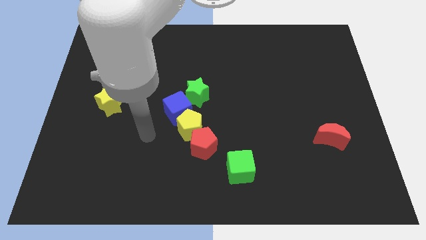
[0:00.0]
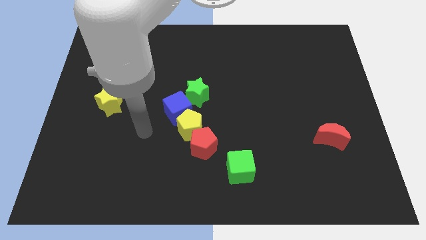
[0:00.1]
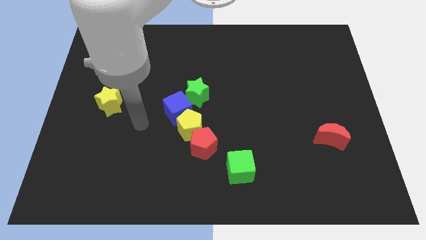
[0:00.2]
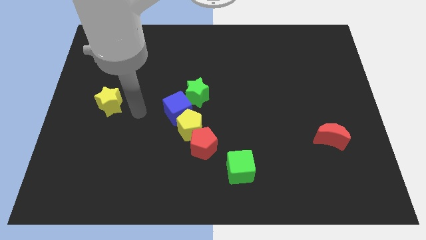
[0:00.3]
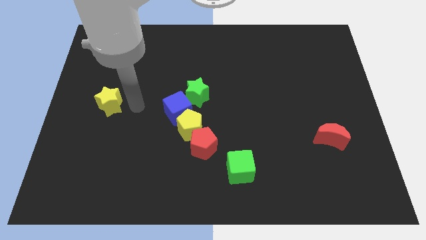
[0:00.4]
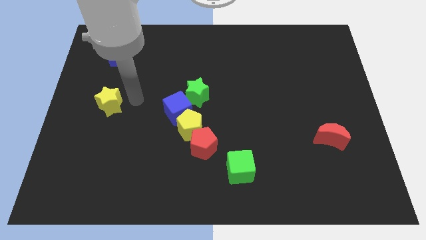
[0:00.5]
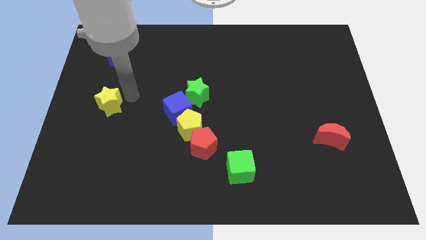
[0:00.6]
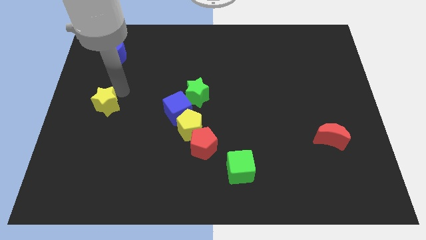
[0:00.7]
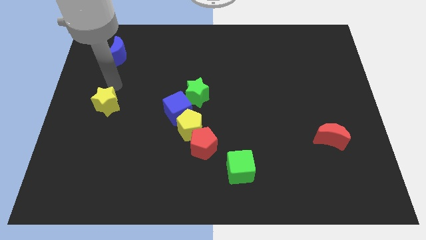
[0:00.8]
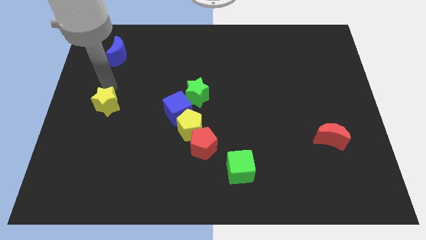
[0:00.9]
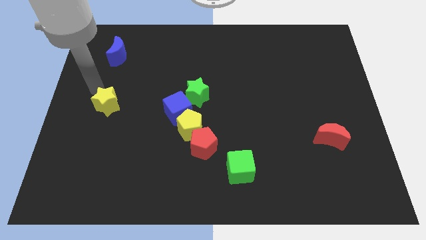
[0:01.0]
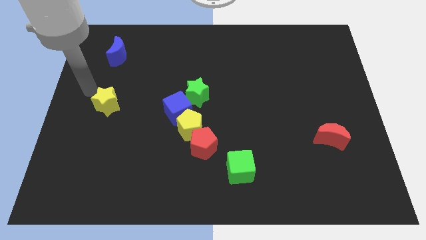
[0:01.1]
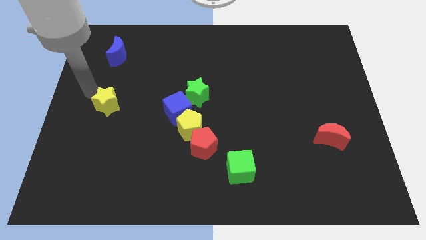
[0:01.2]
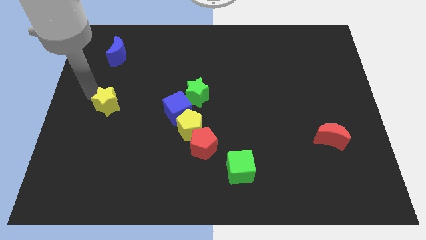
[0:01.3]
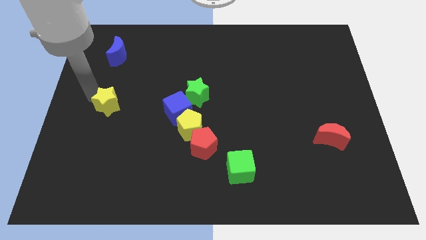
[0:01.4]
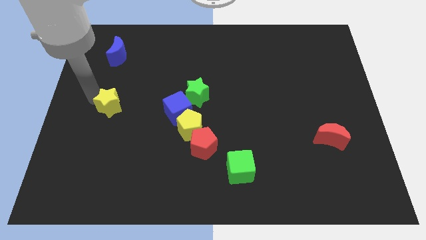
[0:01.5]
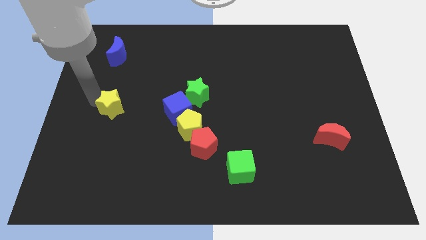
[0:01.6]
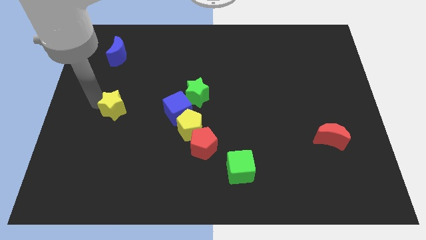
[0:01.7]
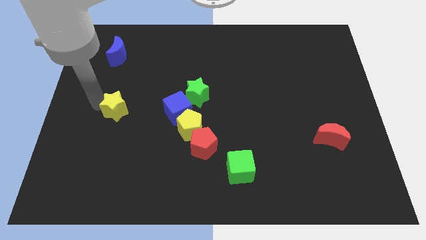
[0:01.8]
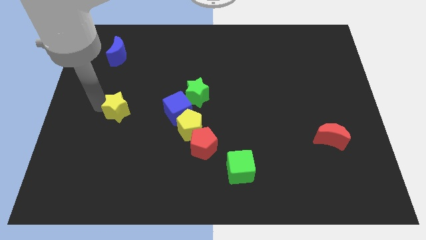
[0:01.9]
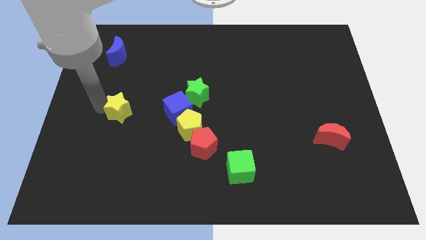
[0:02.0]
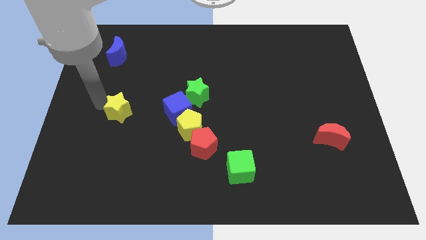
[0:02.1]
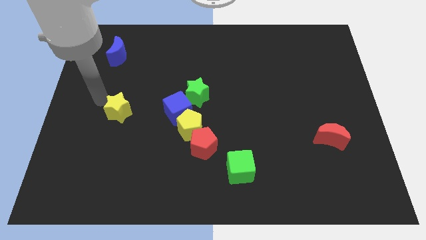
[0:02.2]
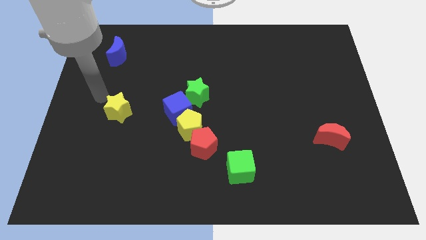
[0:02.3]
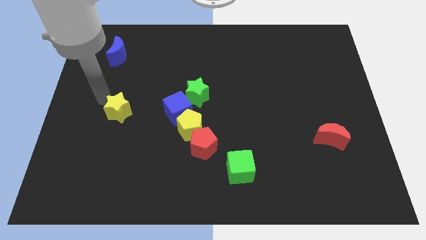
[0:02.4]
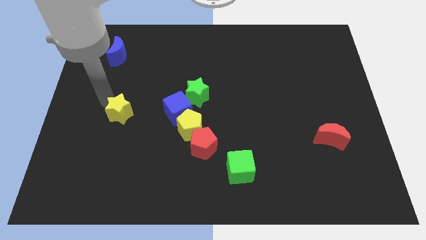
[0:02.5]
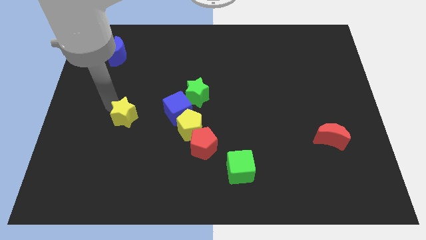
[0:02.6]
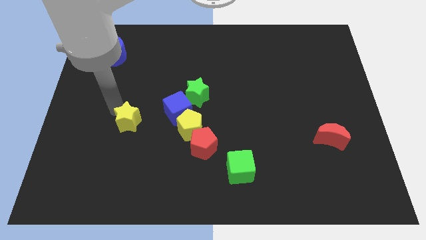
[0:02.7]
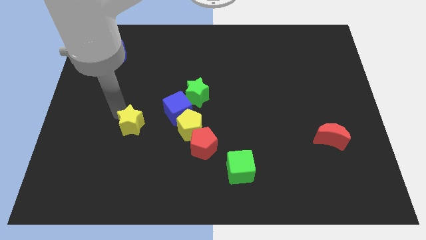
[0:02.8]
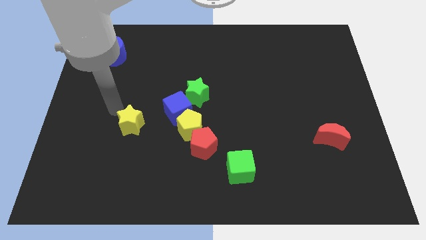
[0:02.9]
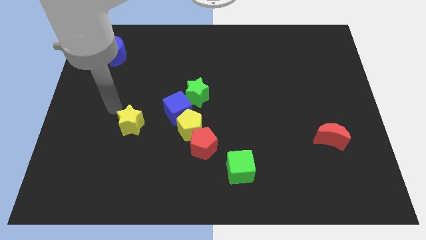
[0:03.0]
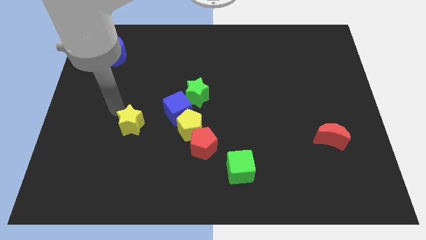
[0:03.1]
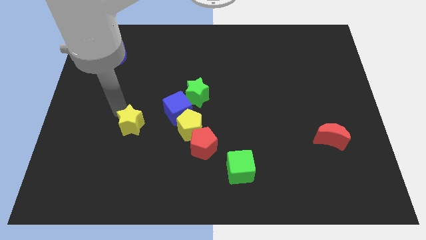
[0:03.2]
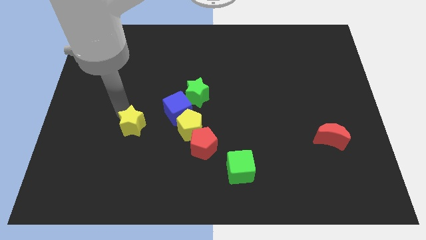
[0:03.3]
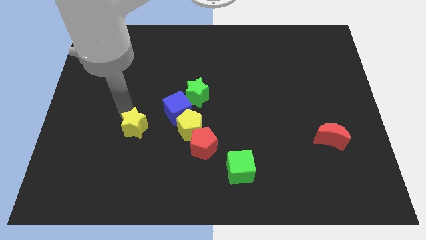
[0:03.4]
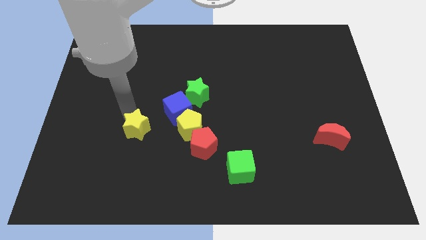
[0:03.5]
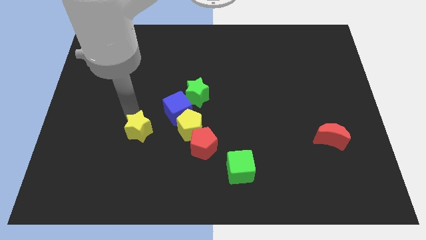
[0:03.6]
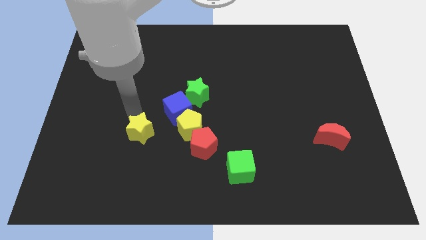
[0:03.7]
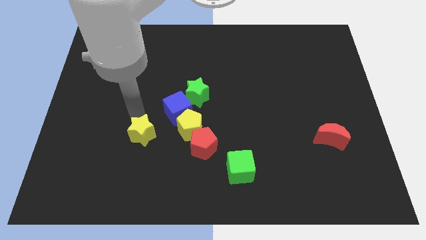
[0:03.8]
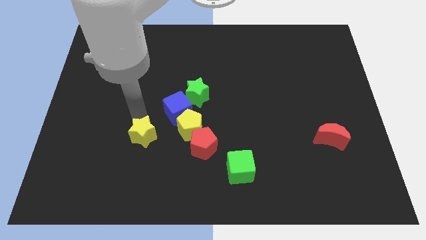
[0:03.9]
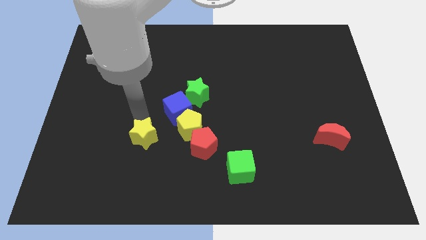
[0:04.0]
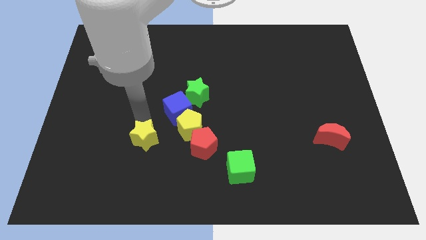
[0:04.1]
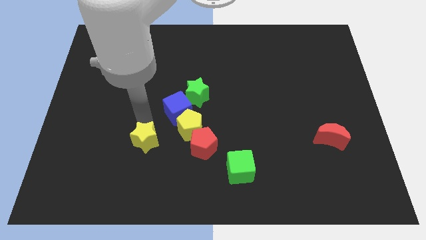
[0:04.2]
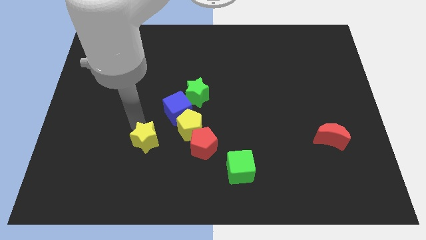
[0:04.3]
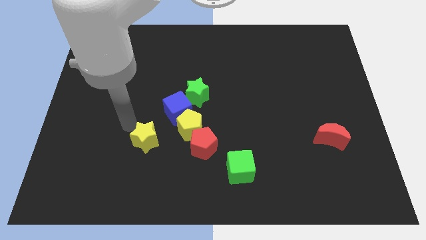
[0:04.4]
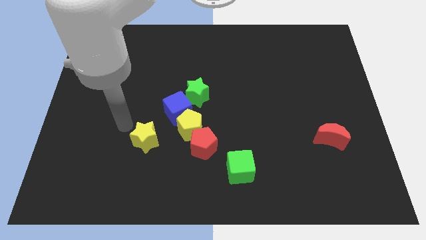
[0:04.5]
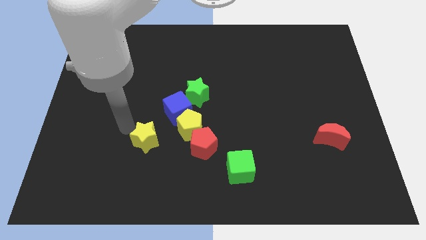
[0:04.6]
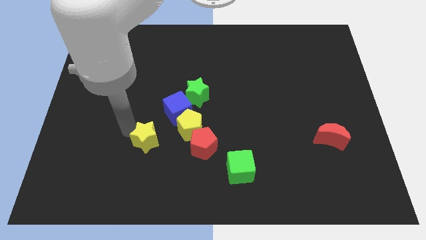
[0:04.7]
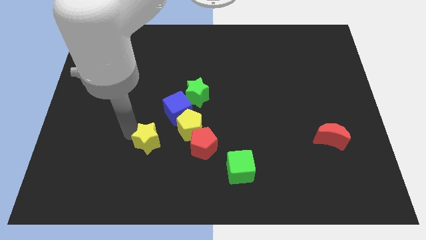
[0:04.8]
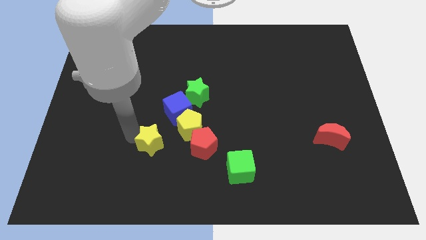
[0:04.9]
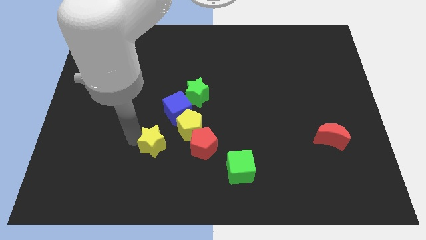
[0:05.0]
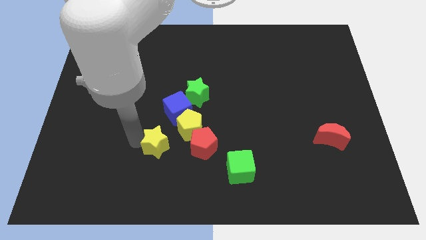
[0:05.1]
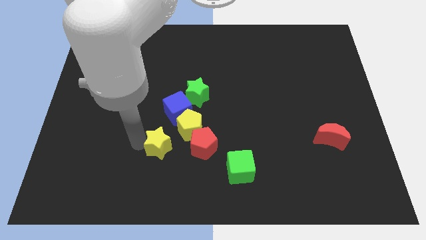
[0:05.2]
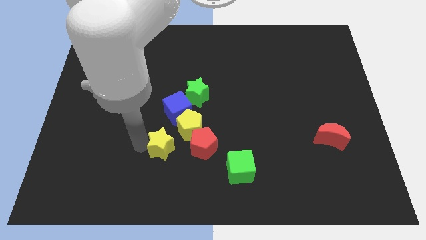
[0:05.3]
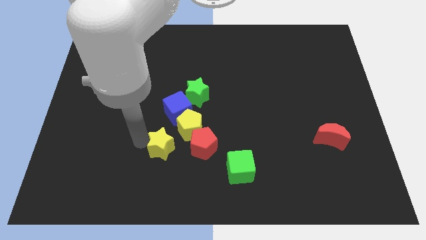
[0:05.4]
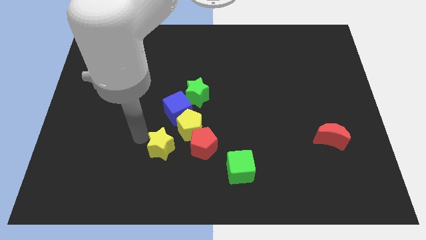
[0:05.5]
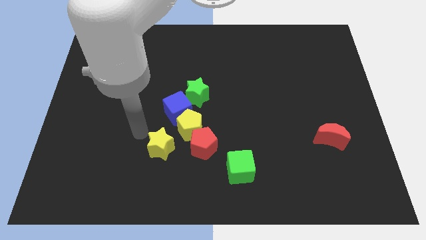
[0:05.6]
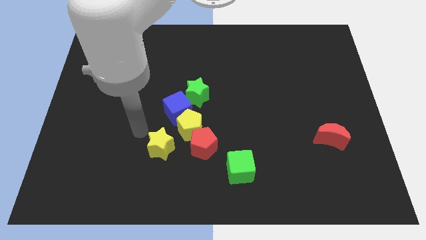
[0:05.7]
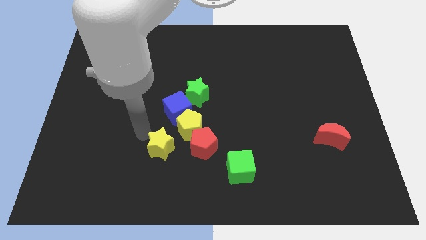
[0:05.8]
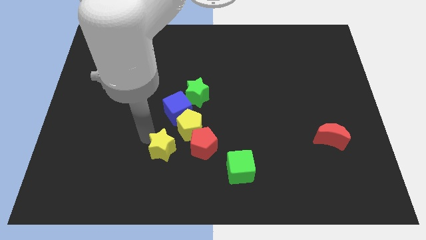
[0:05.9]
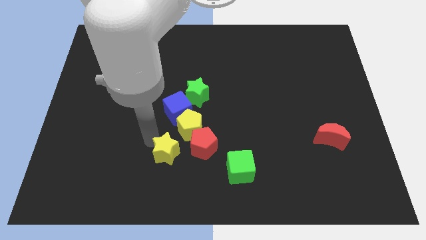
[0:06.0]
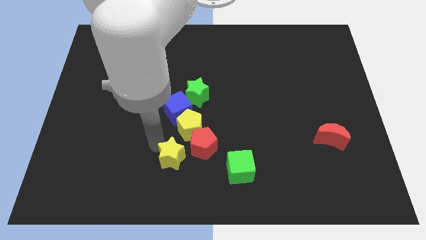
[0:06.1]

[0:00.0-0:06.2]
put the yellow star to the left of the green cube
